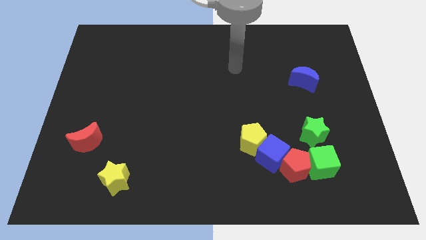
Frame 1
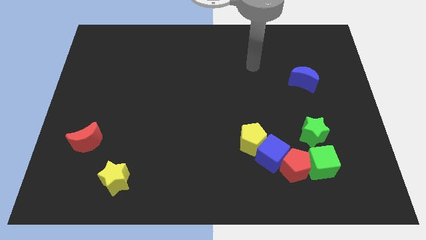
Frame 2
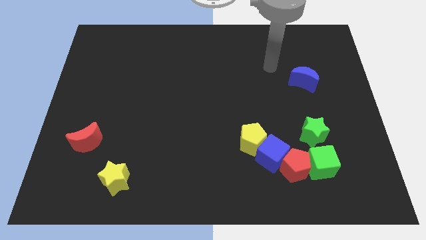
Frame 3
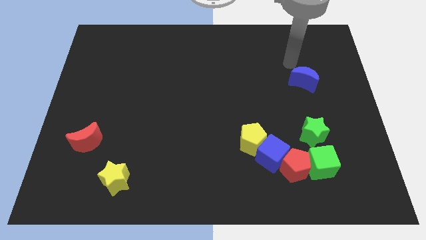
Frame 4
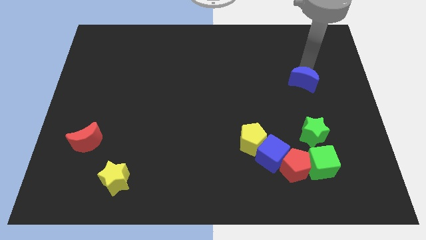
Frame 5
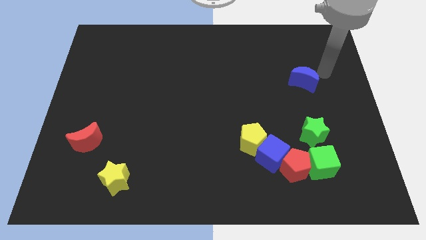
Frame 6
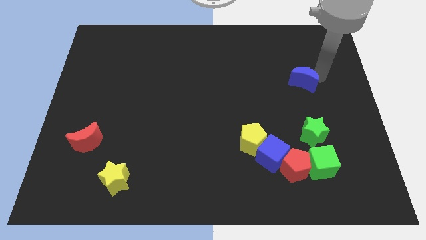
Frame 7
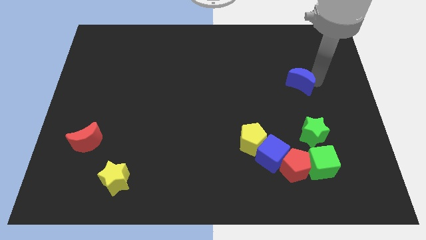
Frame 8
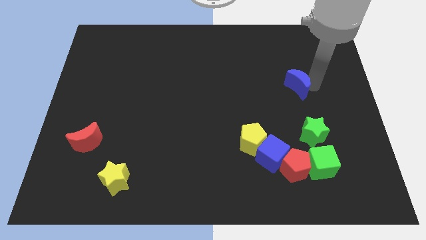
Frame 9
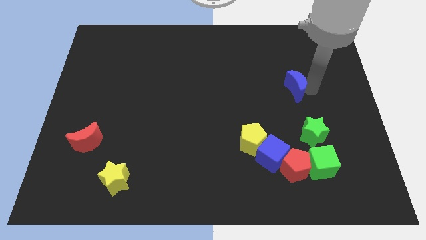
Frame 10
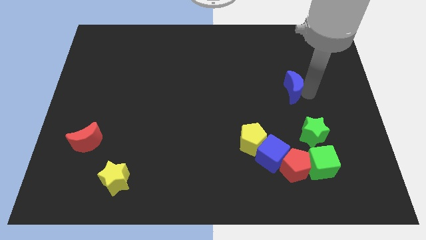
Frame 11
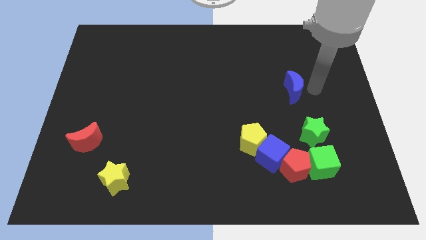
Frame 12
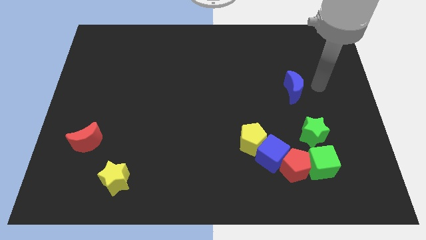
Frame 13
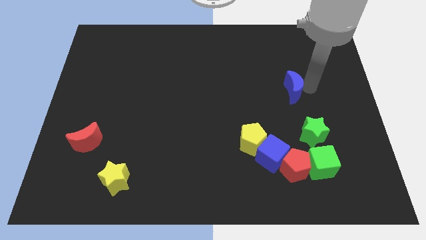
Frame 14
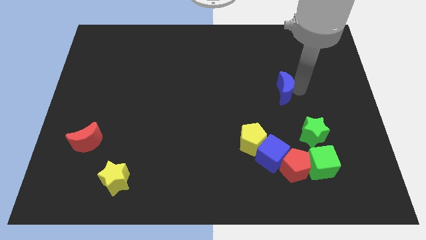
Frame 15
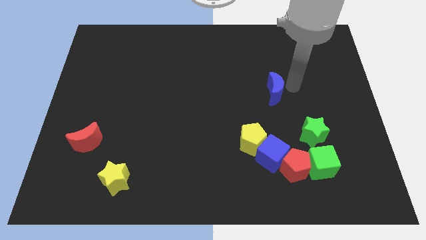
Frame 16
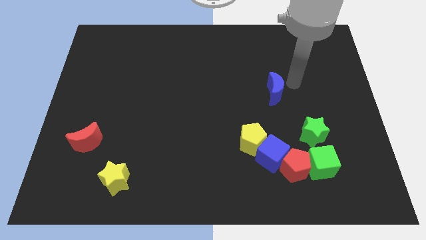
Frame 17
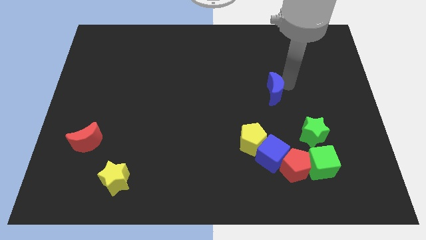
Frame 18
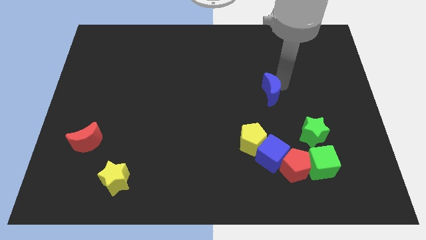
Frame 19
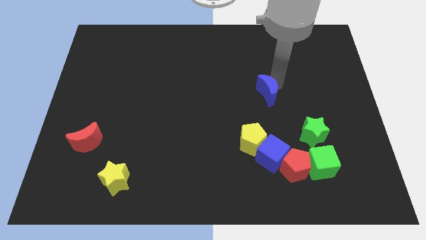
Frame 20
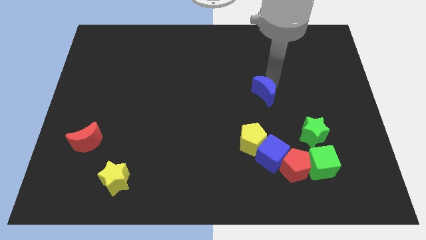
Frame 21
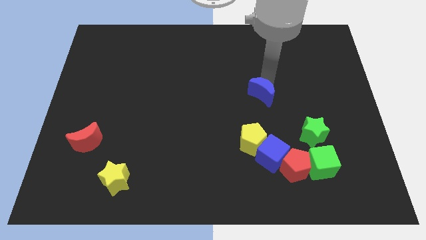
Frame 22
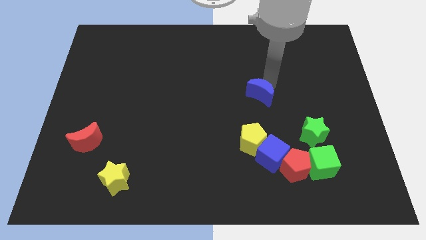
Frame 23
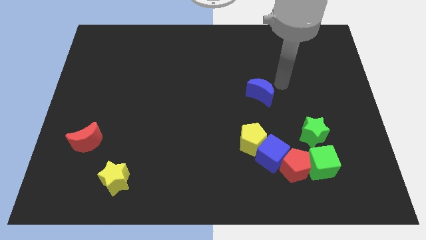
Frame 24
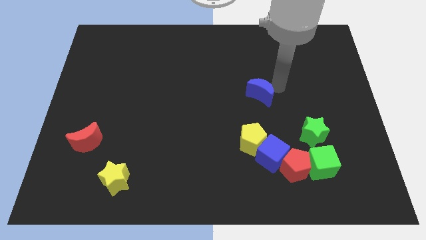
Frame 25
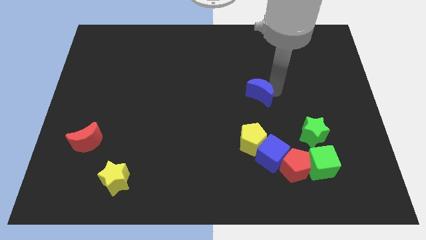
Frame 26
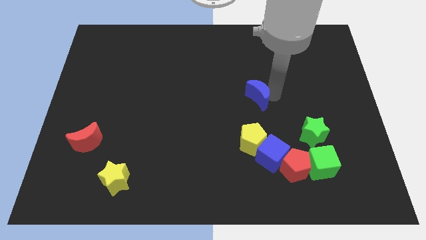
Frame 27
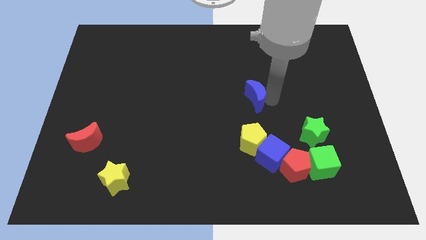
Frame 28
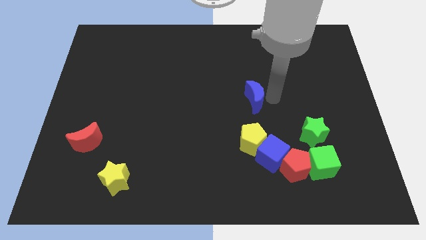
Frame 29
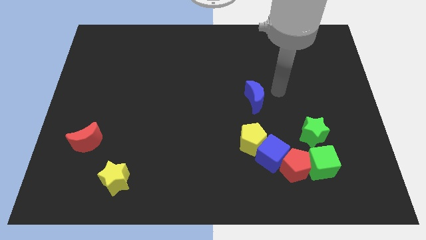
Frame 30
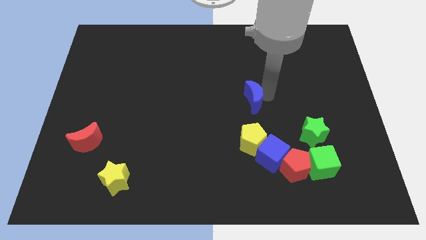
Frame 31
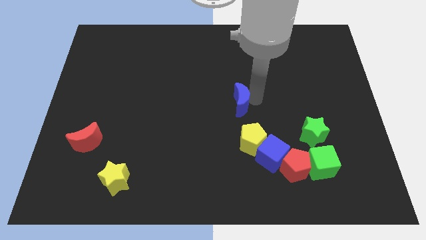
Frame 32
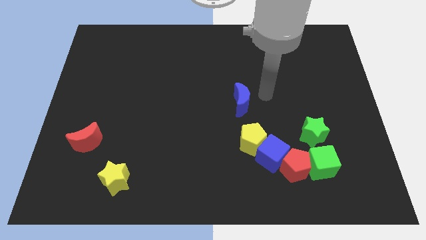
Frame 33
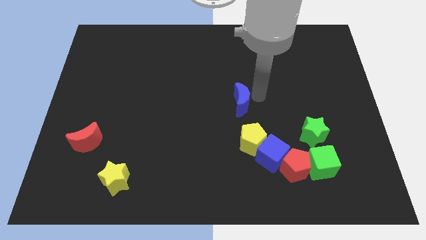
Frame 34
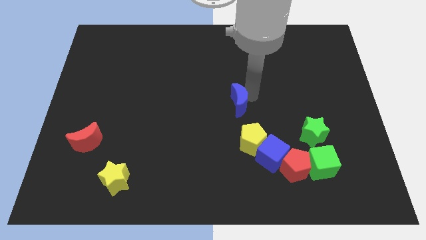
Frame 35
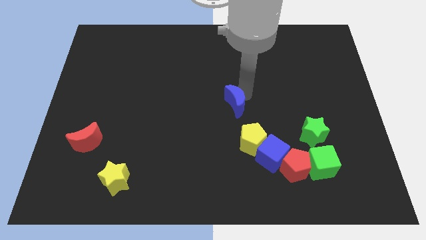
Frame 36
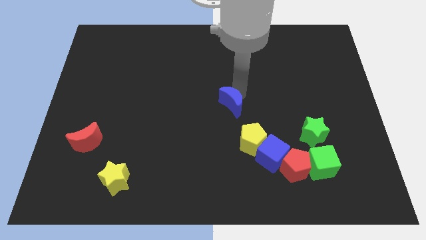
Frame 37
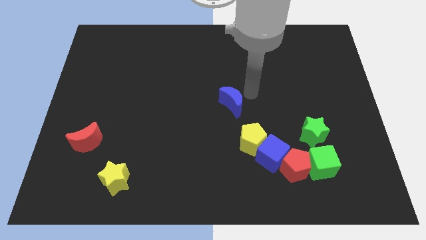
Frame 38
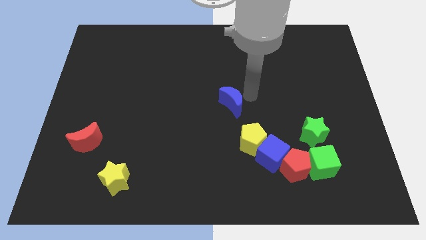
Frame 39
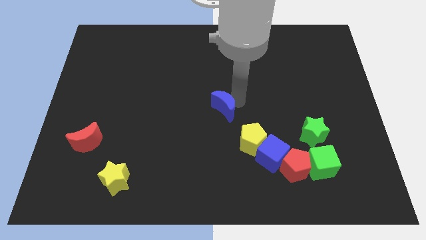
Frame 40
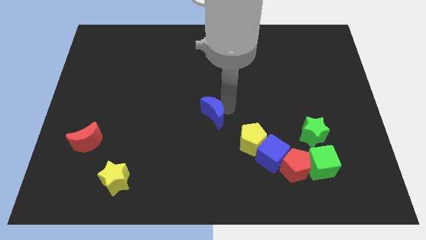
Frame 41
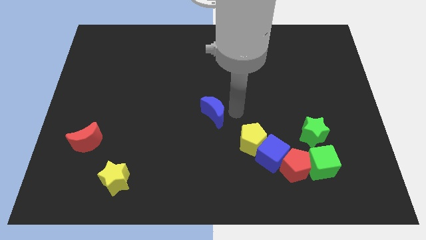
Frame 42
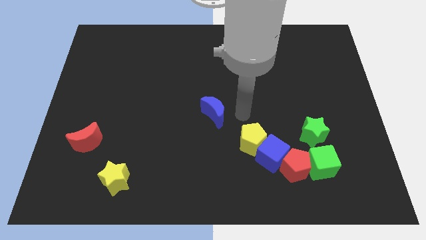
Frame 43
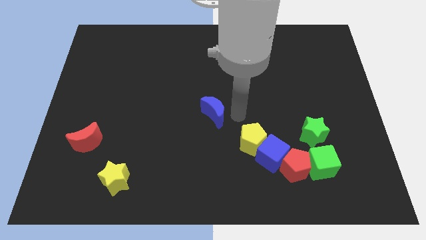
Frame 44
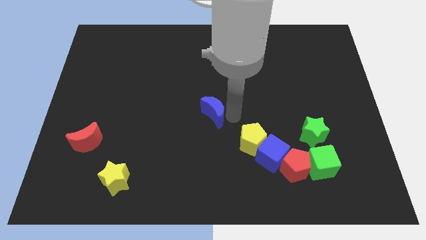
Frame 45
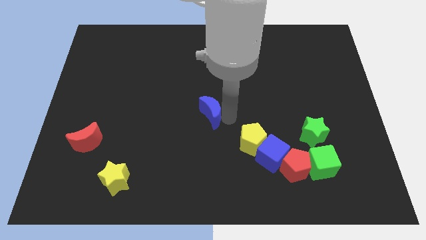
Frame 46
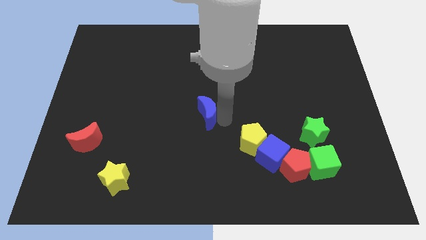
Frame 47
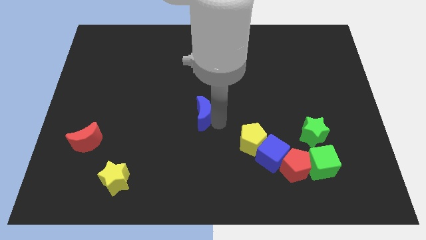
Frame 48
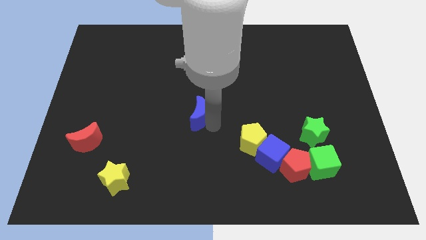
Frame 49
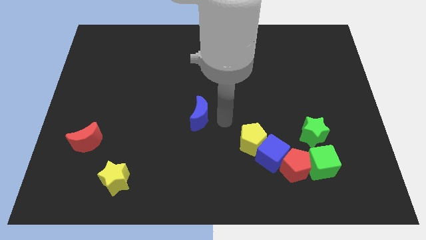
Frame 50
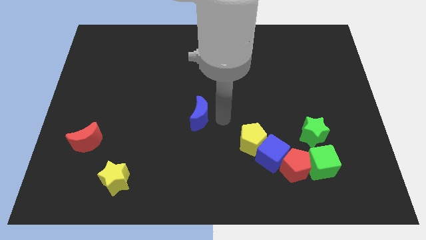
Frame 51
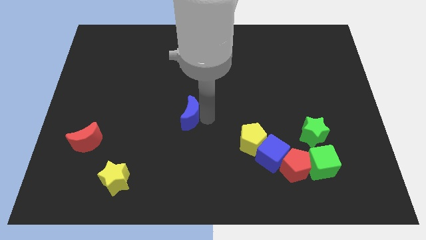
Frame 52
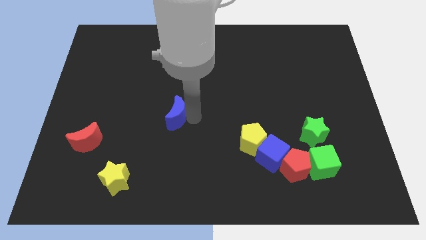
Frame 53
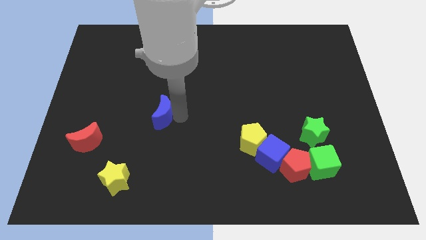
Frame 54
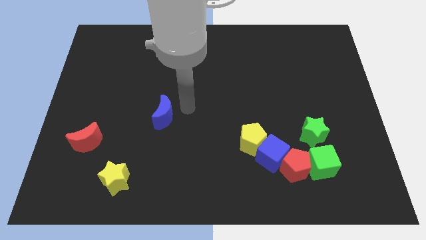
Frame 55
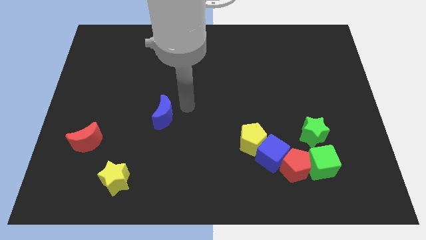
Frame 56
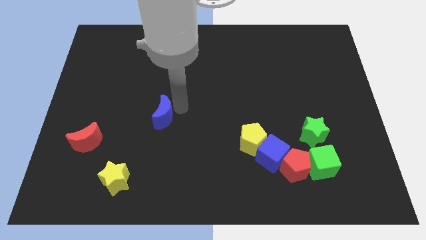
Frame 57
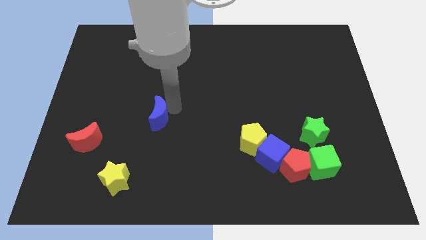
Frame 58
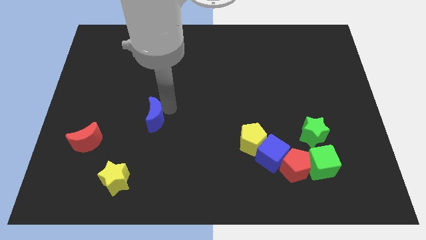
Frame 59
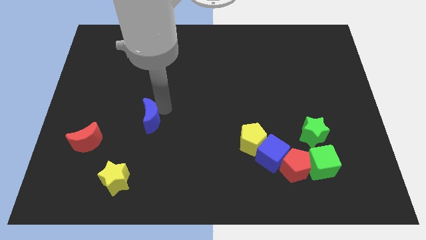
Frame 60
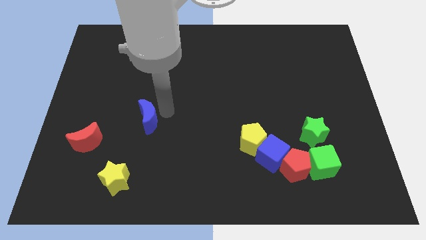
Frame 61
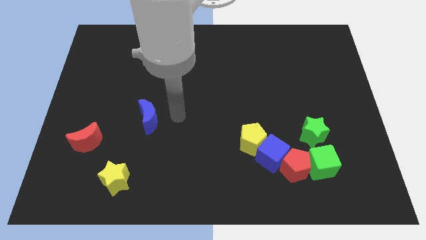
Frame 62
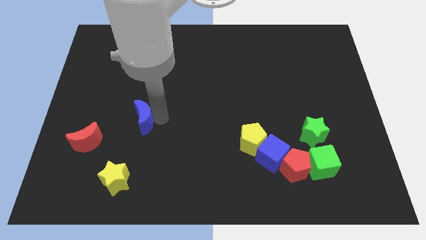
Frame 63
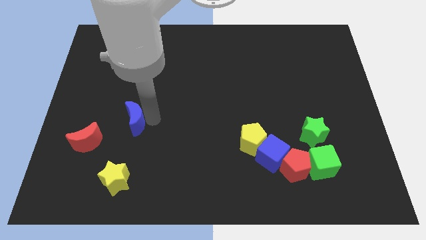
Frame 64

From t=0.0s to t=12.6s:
put the blue moon diagonally up and to the right of the red moon
